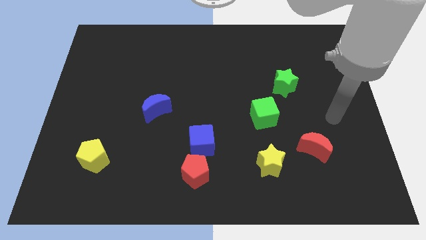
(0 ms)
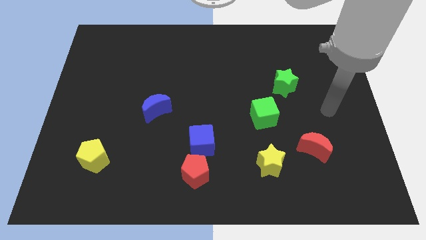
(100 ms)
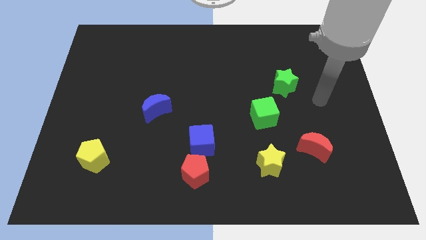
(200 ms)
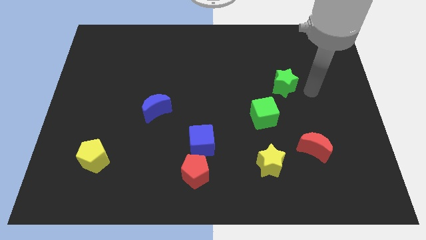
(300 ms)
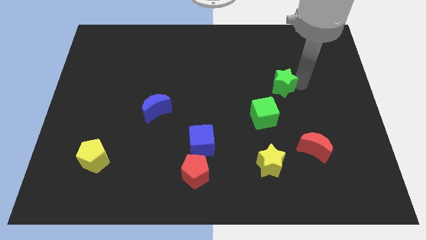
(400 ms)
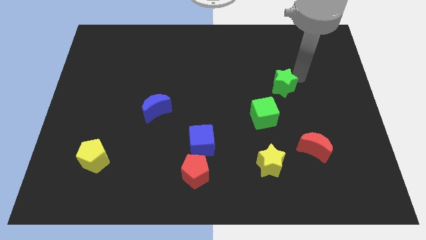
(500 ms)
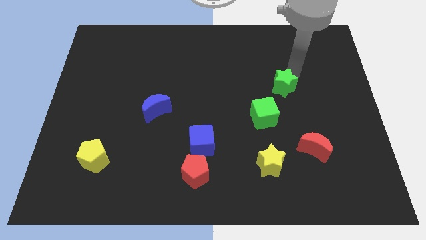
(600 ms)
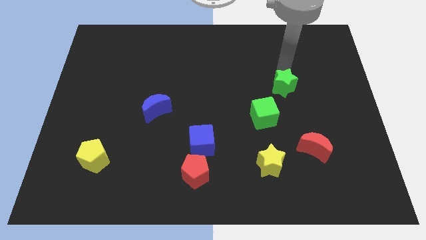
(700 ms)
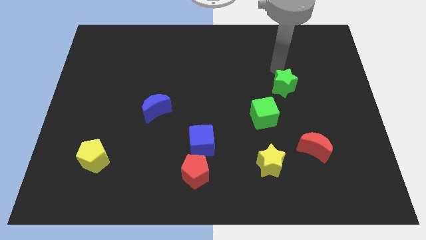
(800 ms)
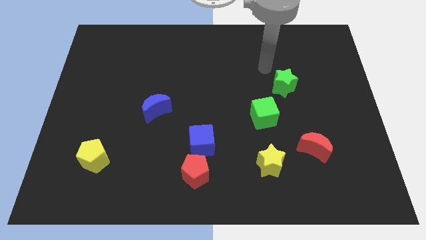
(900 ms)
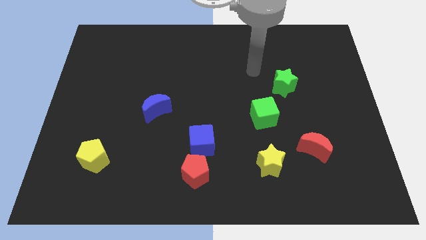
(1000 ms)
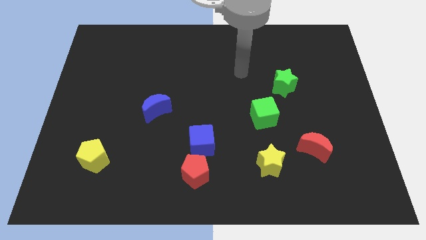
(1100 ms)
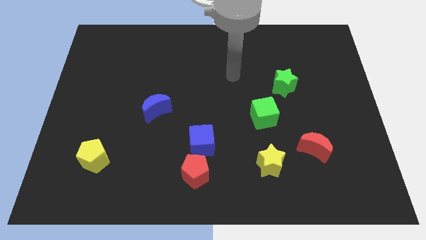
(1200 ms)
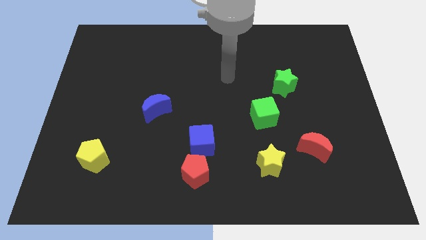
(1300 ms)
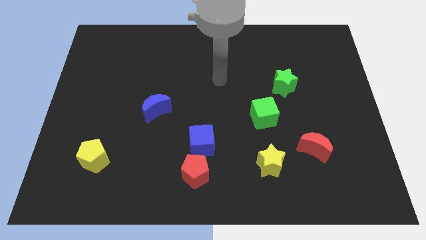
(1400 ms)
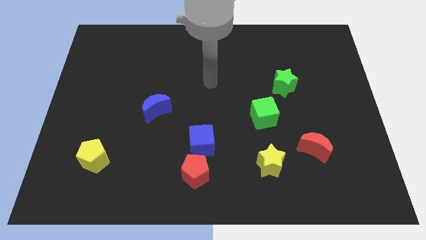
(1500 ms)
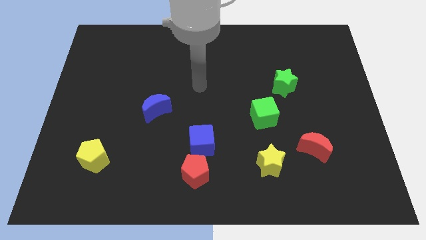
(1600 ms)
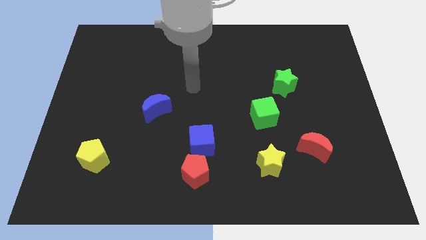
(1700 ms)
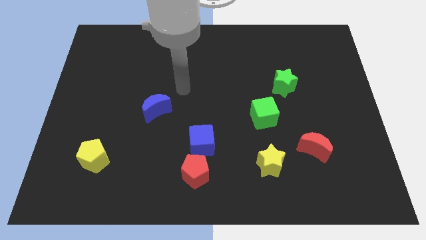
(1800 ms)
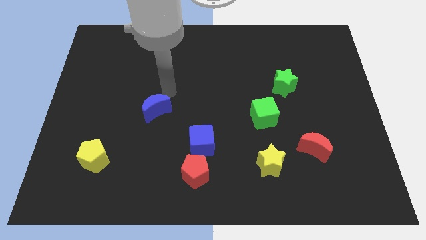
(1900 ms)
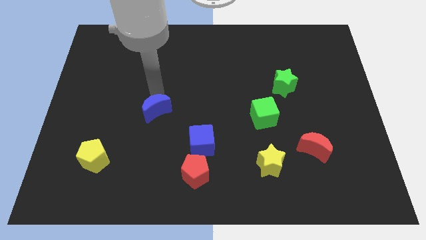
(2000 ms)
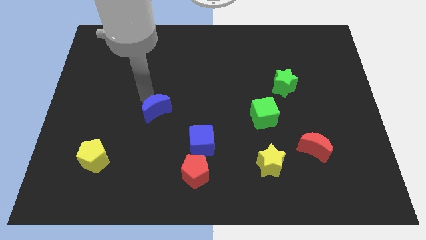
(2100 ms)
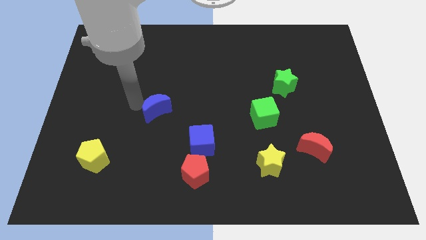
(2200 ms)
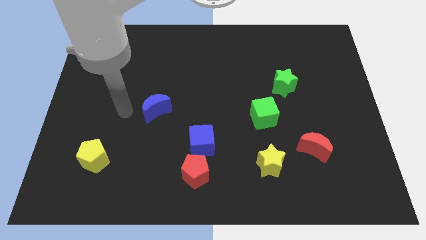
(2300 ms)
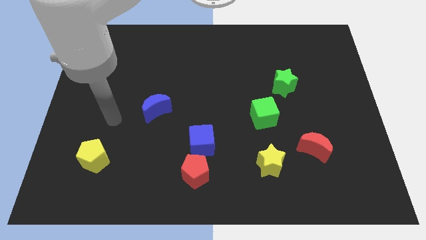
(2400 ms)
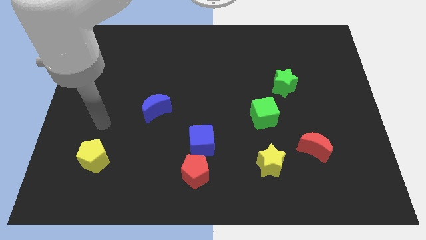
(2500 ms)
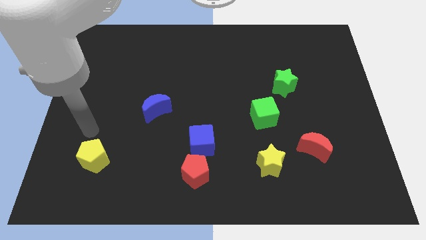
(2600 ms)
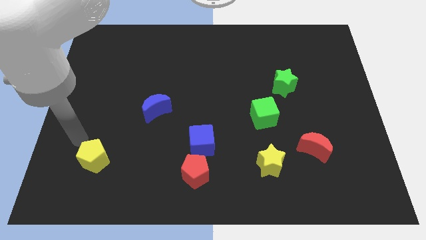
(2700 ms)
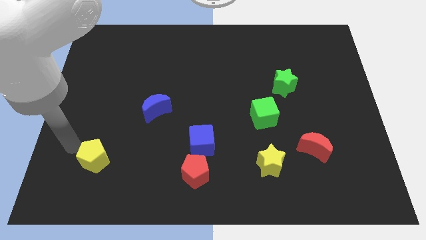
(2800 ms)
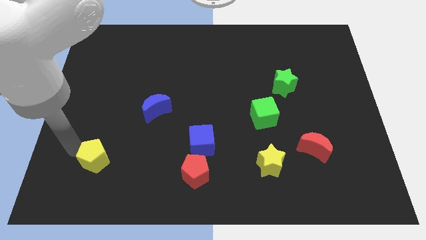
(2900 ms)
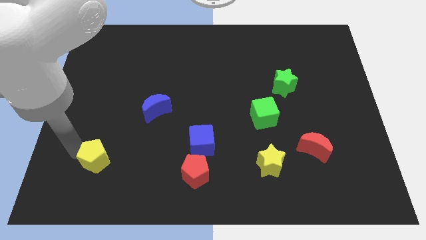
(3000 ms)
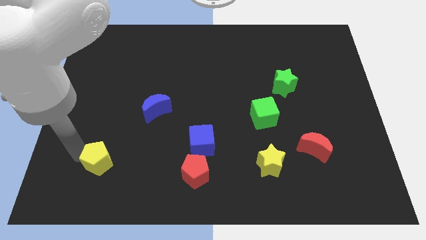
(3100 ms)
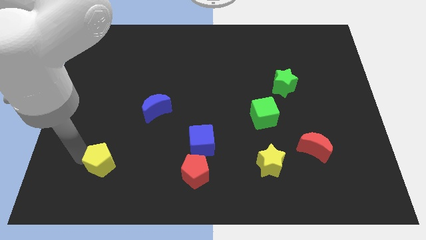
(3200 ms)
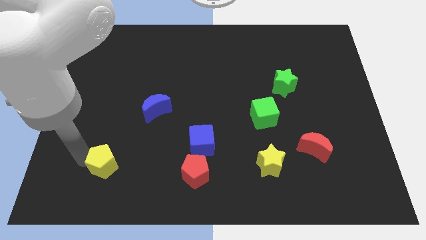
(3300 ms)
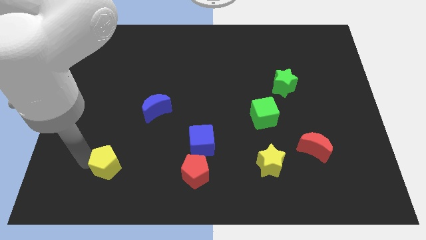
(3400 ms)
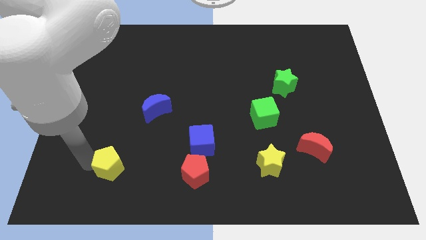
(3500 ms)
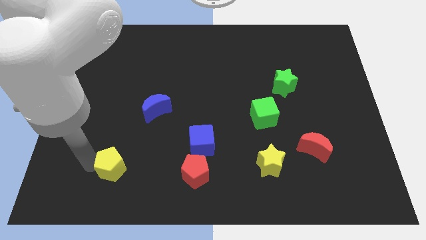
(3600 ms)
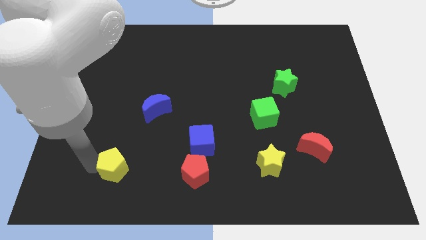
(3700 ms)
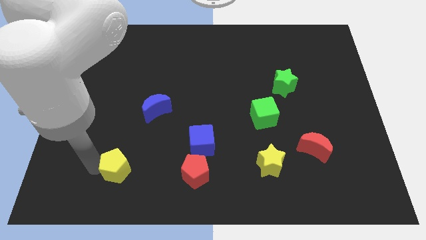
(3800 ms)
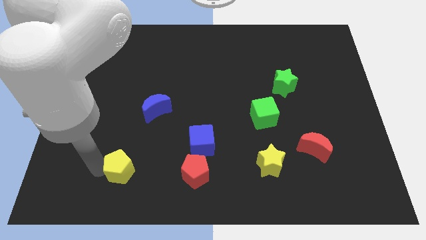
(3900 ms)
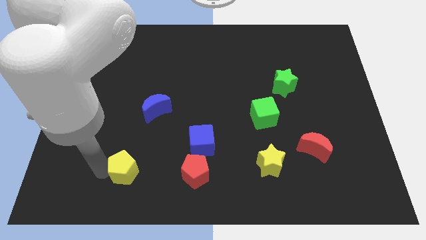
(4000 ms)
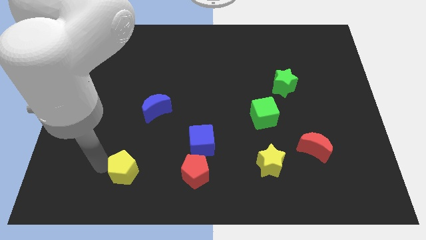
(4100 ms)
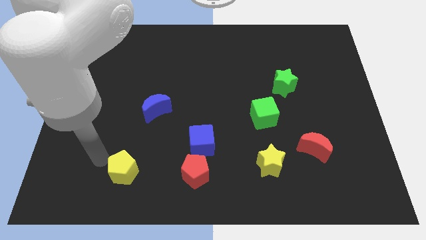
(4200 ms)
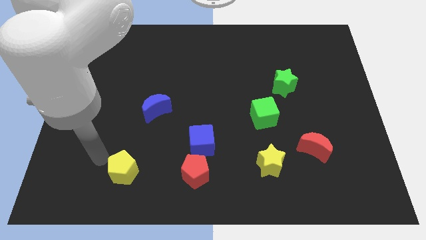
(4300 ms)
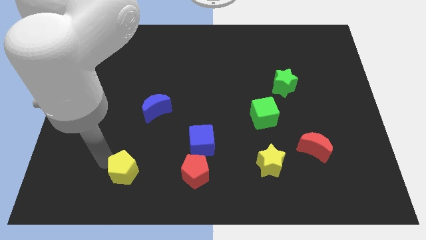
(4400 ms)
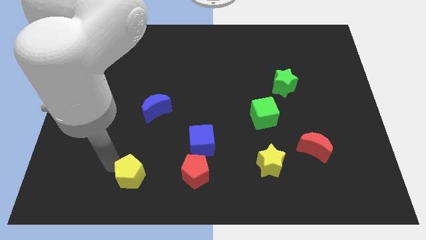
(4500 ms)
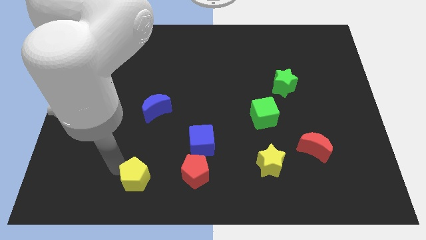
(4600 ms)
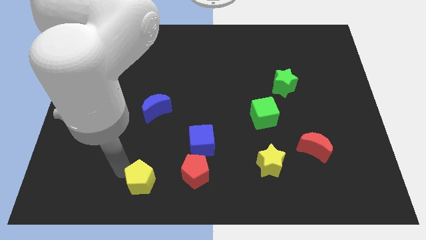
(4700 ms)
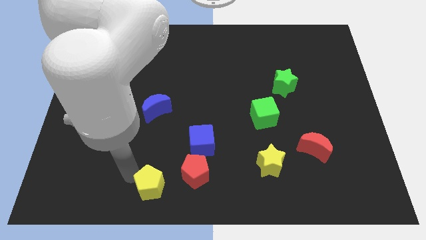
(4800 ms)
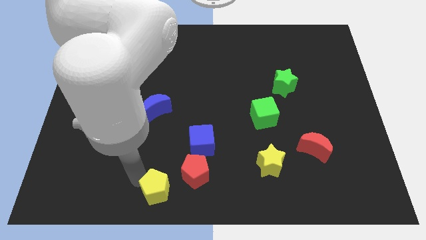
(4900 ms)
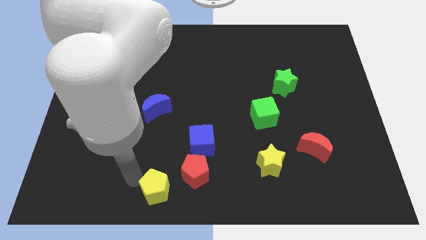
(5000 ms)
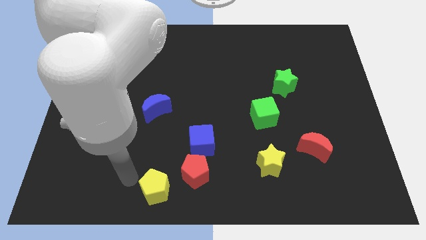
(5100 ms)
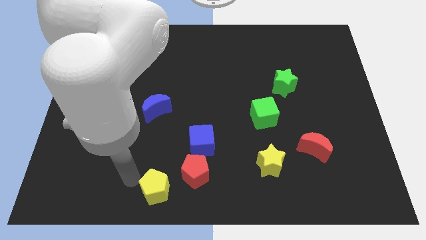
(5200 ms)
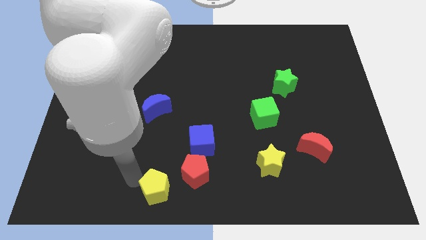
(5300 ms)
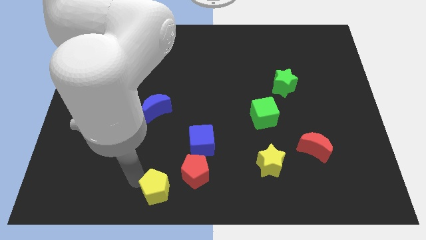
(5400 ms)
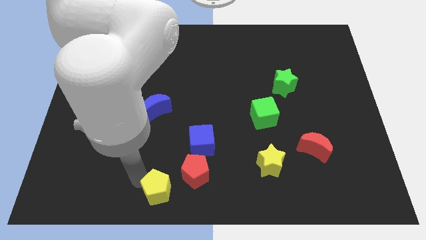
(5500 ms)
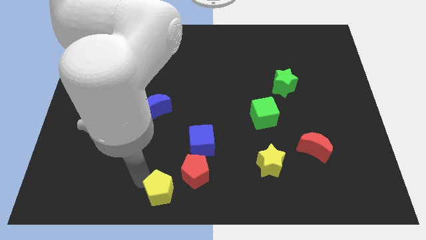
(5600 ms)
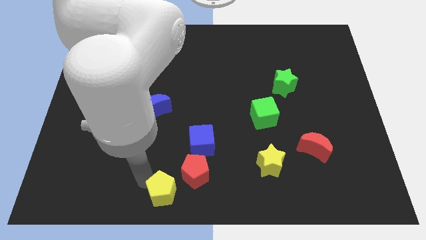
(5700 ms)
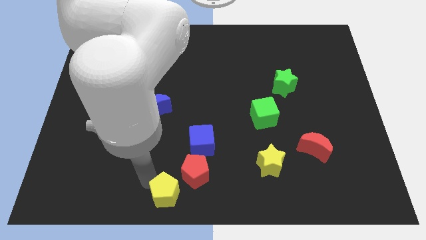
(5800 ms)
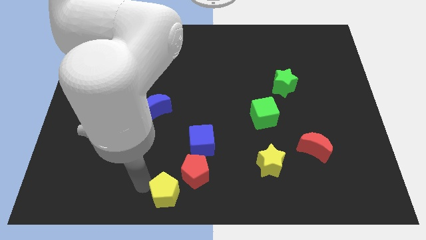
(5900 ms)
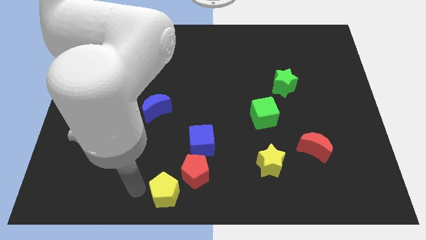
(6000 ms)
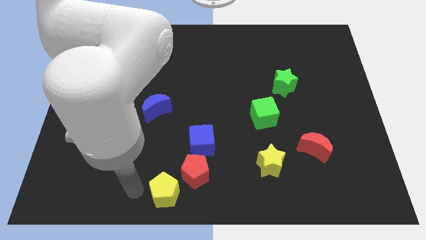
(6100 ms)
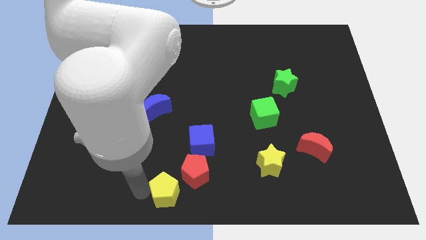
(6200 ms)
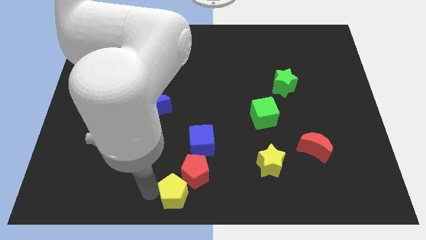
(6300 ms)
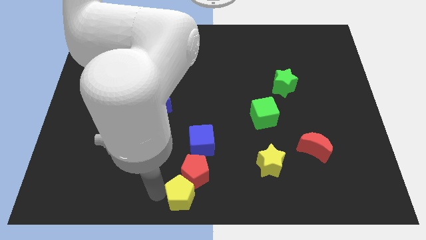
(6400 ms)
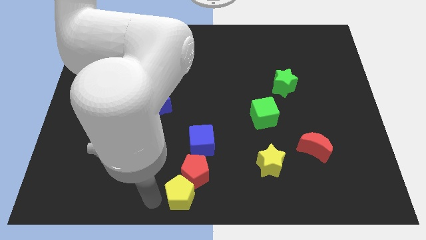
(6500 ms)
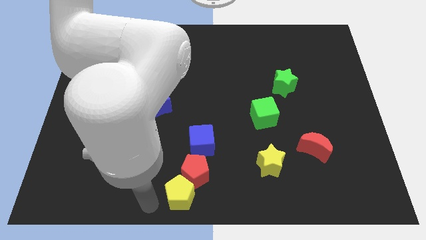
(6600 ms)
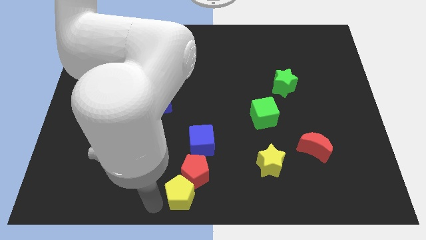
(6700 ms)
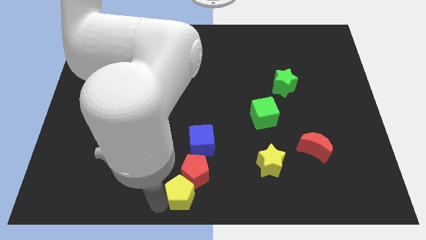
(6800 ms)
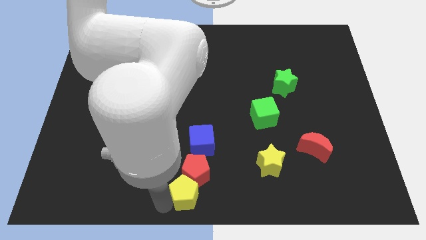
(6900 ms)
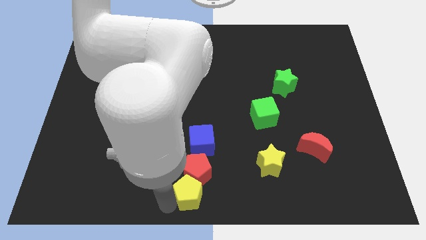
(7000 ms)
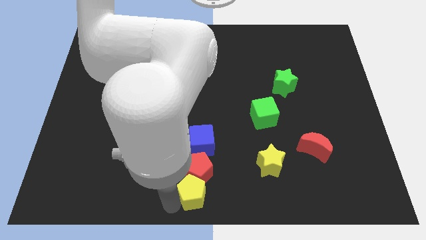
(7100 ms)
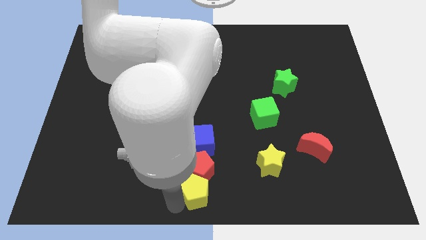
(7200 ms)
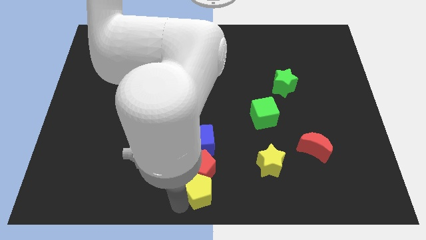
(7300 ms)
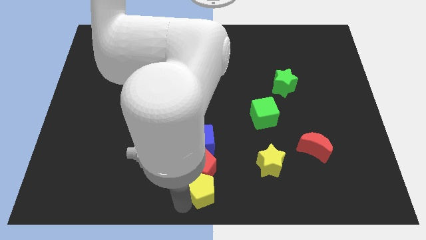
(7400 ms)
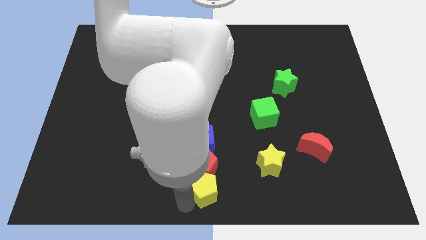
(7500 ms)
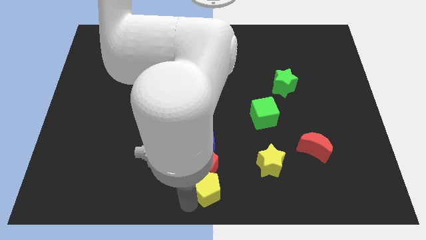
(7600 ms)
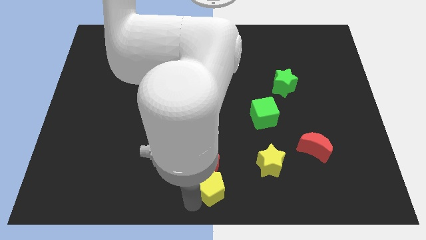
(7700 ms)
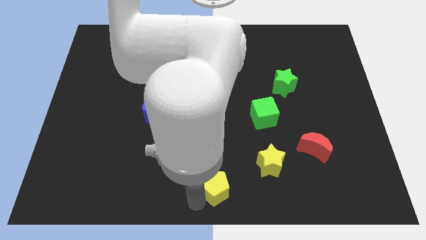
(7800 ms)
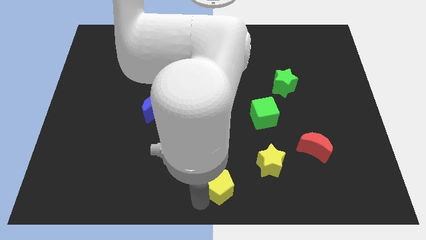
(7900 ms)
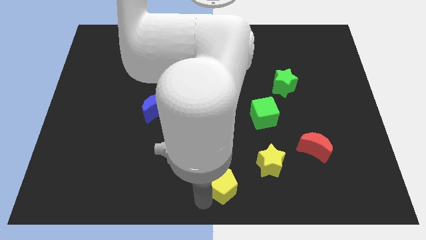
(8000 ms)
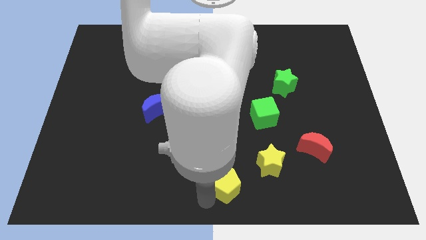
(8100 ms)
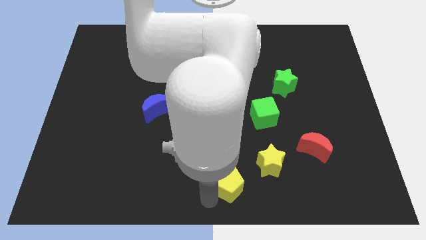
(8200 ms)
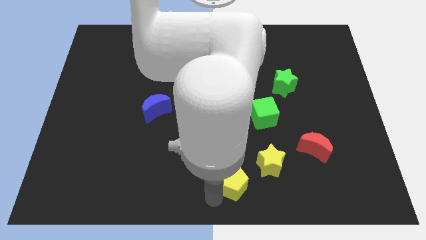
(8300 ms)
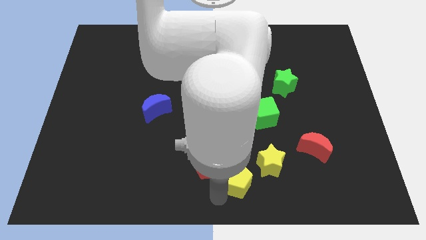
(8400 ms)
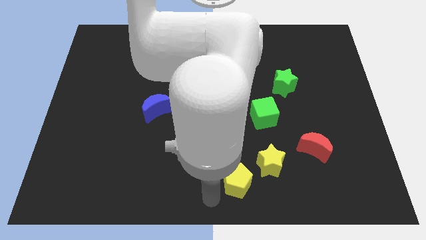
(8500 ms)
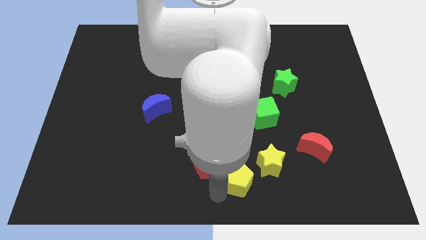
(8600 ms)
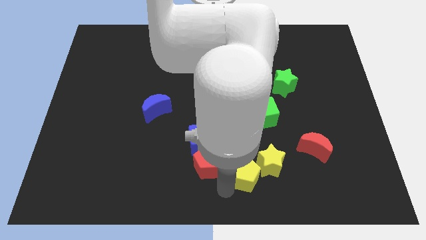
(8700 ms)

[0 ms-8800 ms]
move the yellow pentagon close to the yellow star
